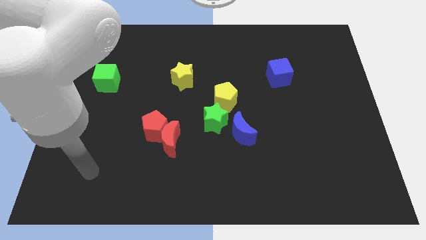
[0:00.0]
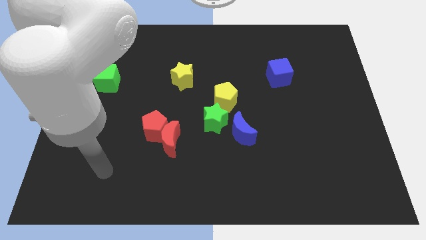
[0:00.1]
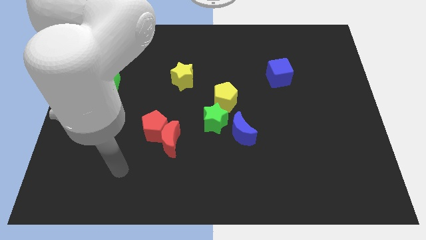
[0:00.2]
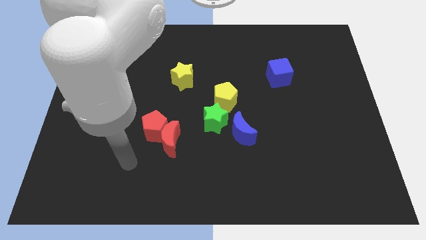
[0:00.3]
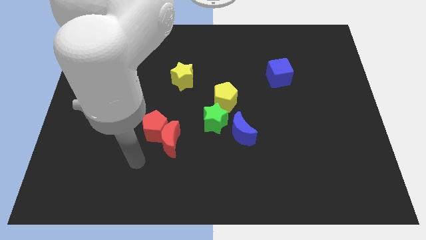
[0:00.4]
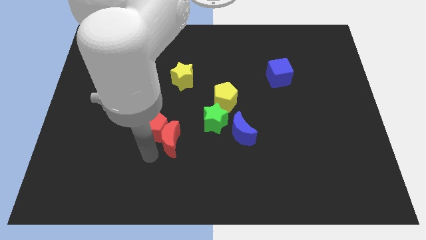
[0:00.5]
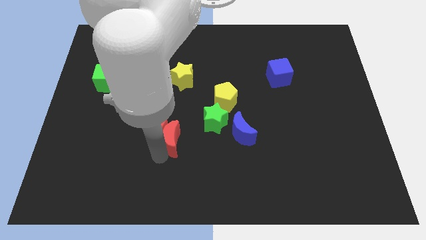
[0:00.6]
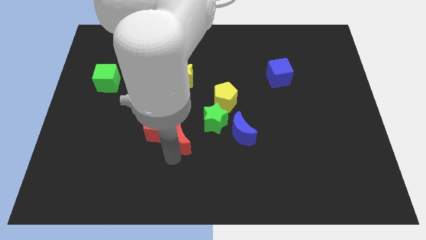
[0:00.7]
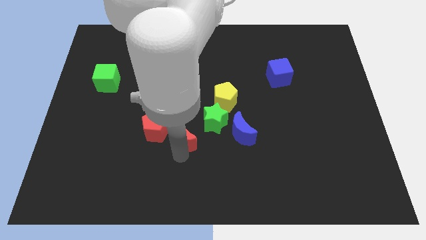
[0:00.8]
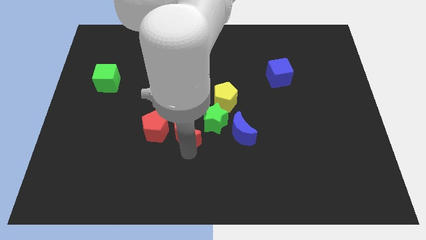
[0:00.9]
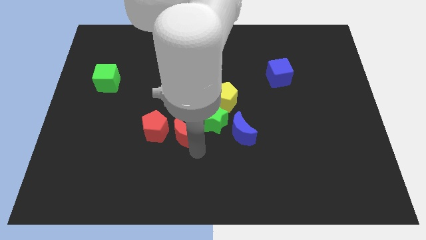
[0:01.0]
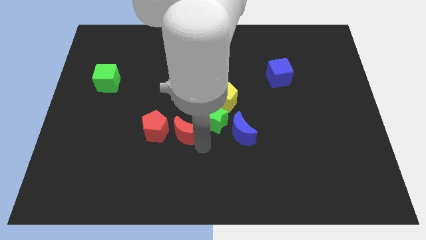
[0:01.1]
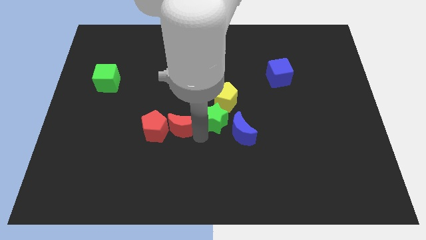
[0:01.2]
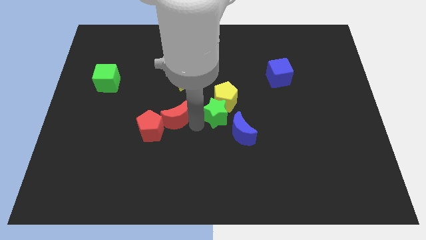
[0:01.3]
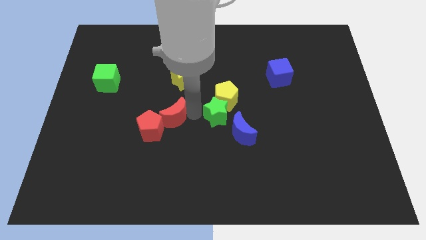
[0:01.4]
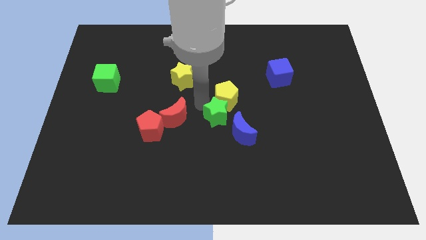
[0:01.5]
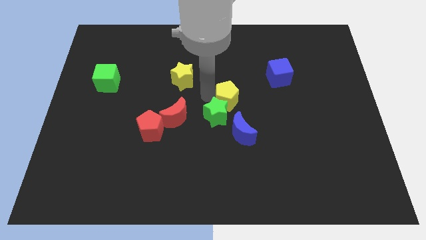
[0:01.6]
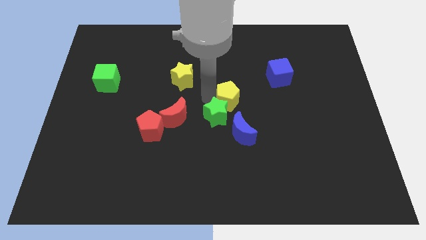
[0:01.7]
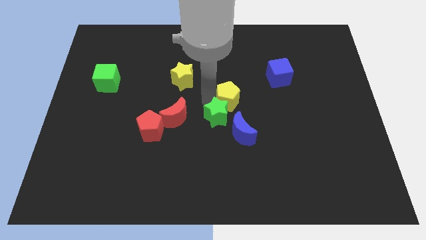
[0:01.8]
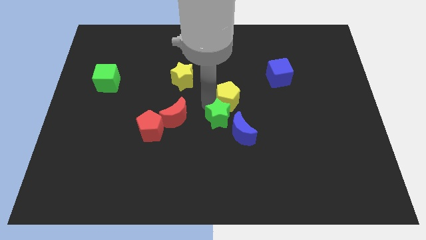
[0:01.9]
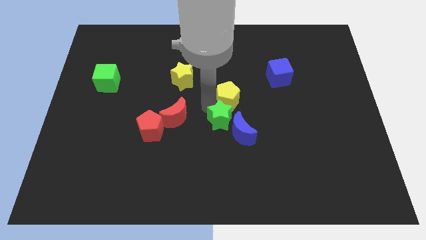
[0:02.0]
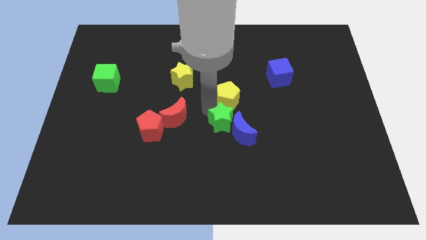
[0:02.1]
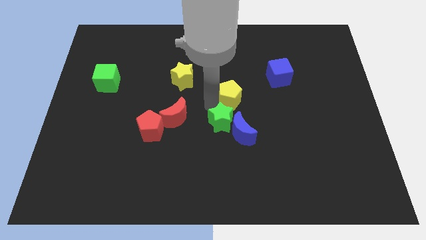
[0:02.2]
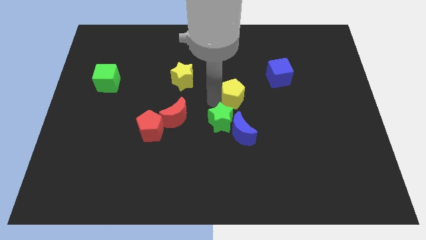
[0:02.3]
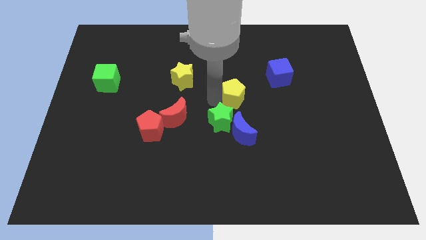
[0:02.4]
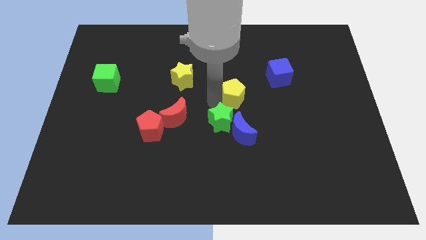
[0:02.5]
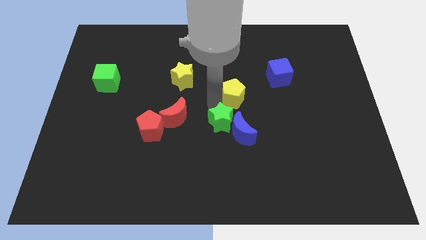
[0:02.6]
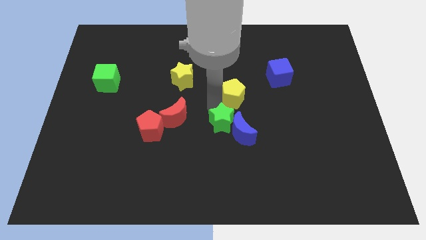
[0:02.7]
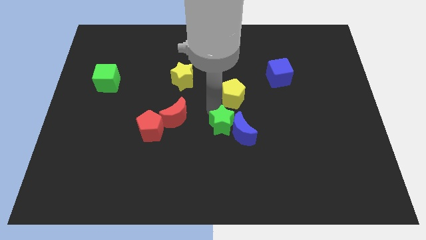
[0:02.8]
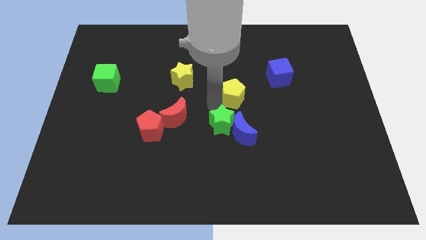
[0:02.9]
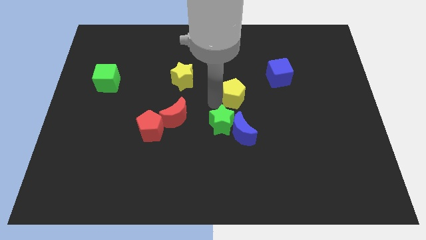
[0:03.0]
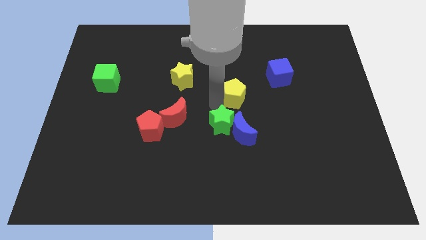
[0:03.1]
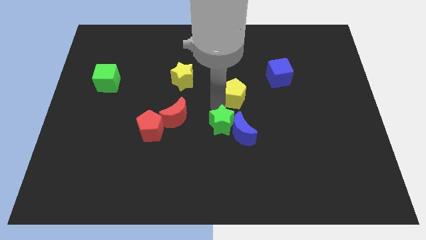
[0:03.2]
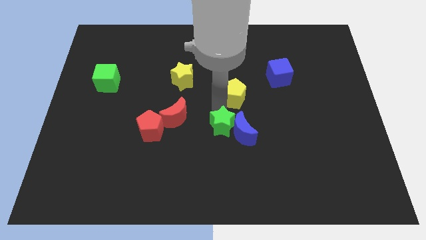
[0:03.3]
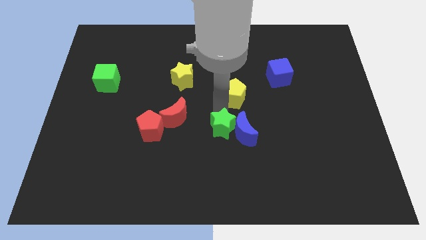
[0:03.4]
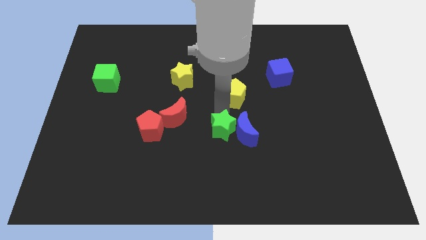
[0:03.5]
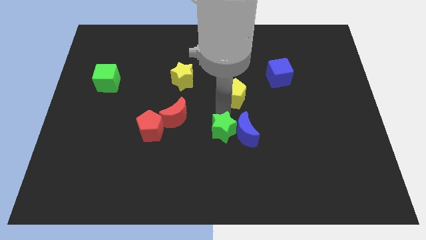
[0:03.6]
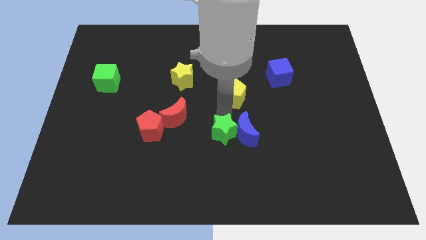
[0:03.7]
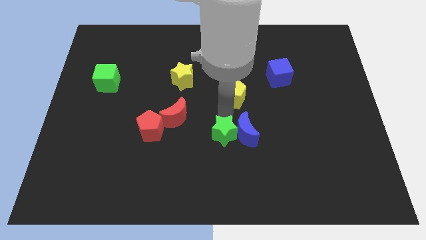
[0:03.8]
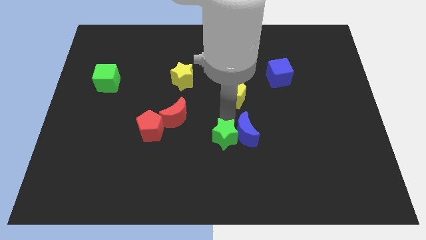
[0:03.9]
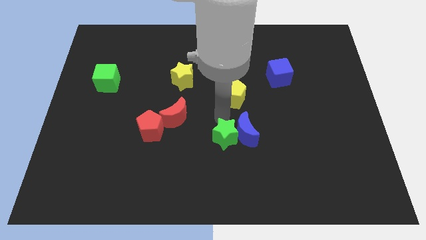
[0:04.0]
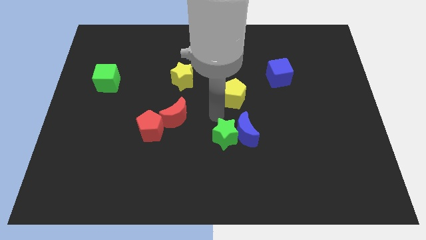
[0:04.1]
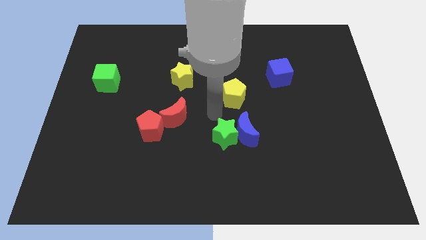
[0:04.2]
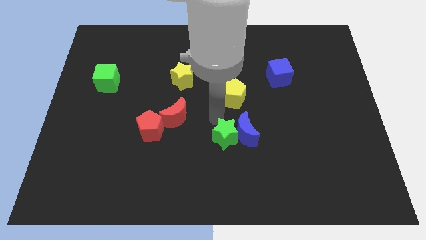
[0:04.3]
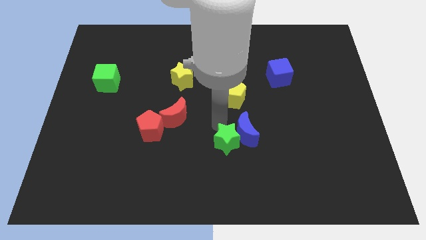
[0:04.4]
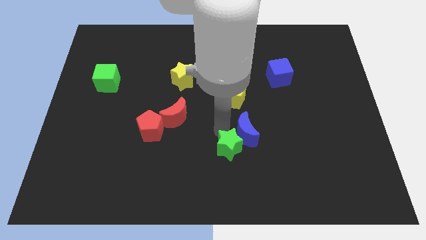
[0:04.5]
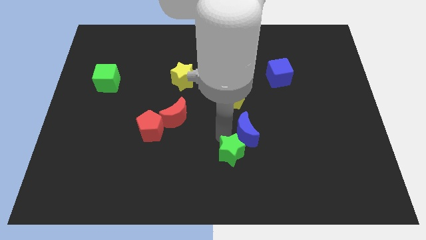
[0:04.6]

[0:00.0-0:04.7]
slightly move the green star down and to the right diagonally

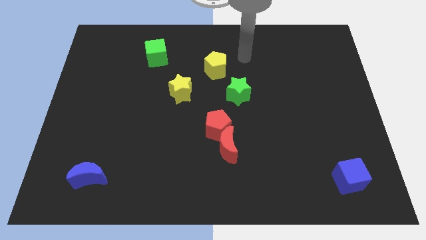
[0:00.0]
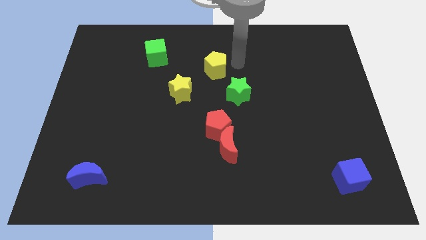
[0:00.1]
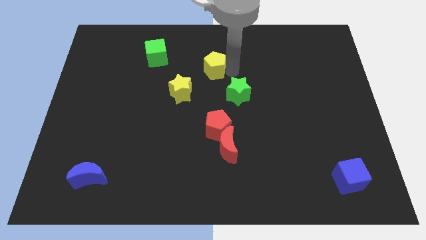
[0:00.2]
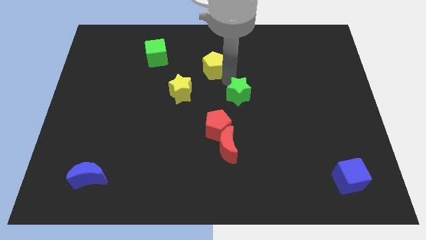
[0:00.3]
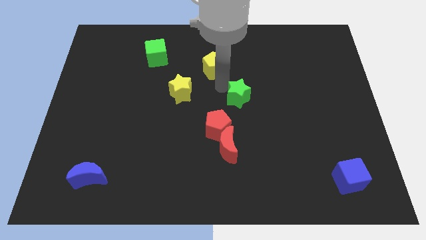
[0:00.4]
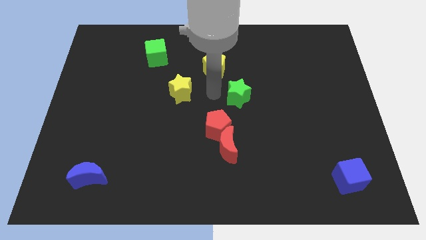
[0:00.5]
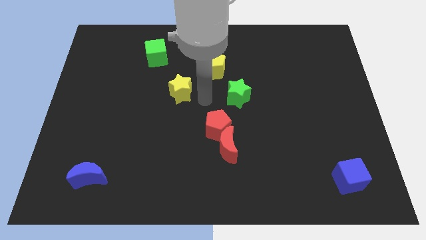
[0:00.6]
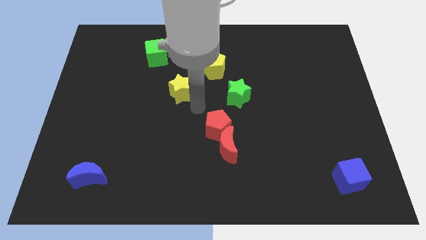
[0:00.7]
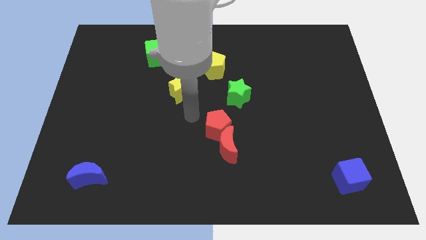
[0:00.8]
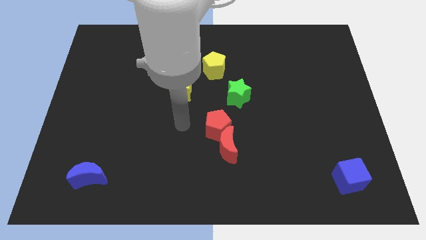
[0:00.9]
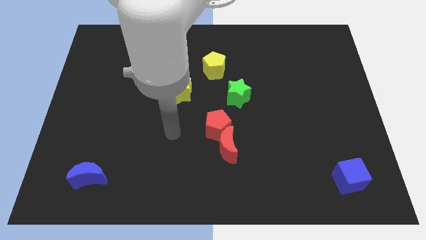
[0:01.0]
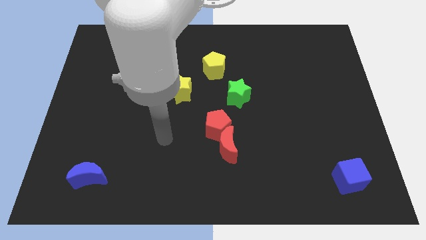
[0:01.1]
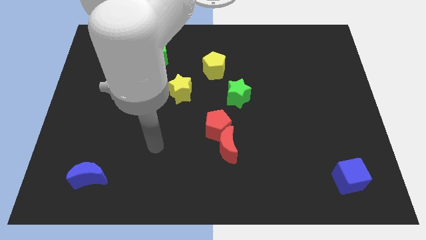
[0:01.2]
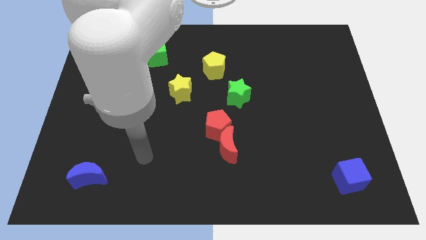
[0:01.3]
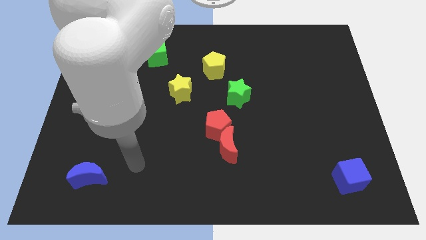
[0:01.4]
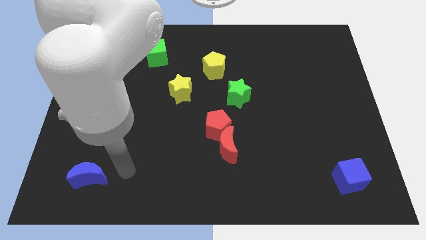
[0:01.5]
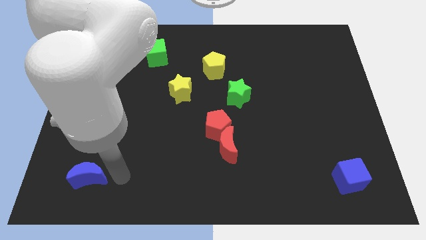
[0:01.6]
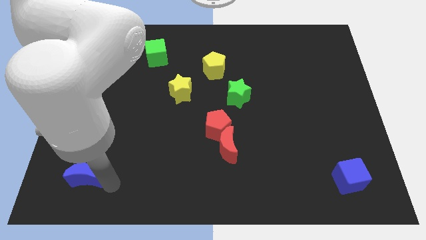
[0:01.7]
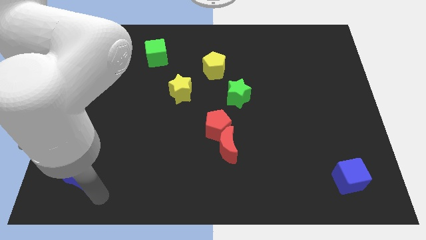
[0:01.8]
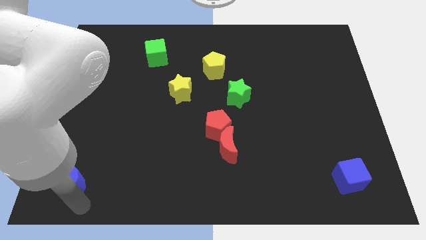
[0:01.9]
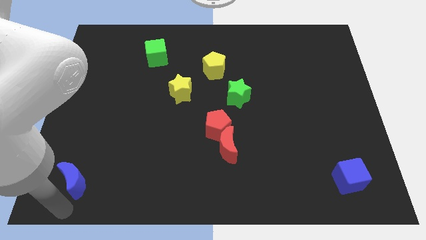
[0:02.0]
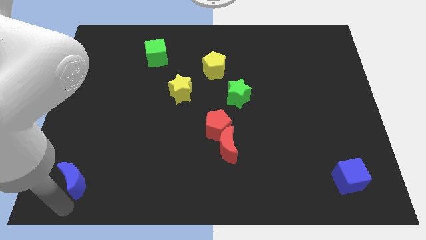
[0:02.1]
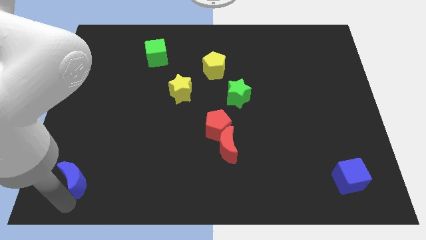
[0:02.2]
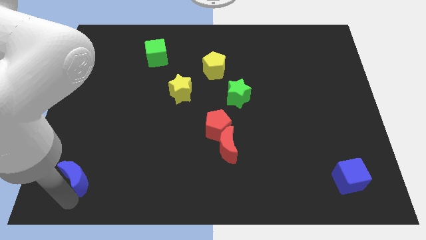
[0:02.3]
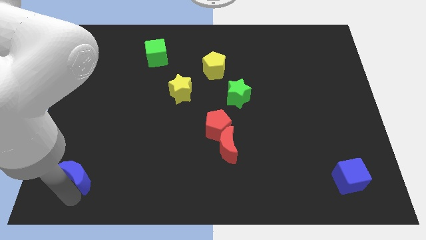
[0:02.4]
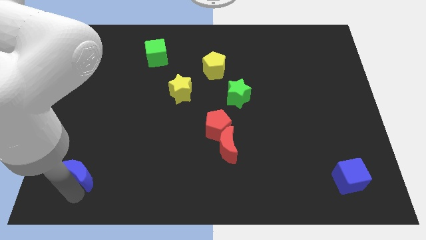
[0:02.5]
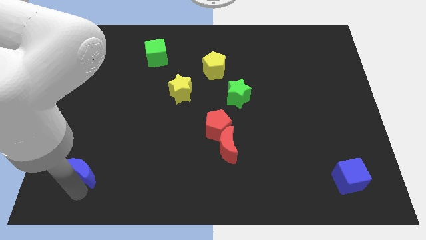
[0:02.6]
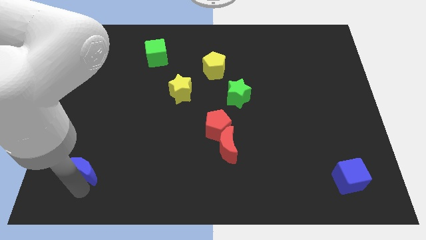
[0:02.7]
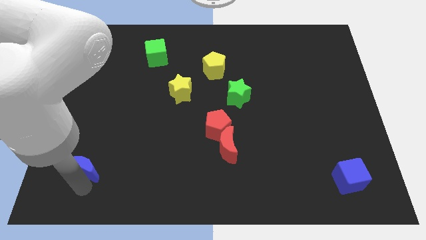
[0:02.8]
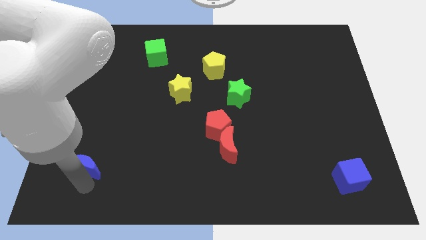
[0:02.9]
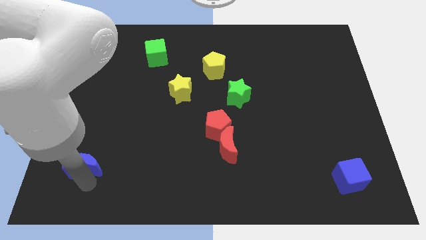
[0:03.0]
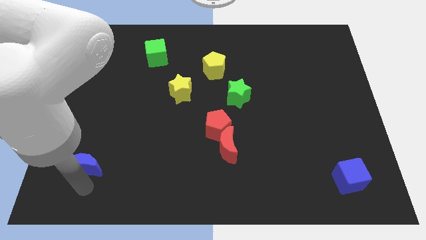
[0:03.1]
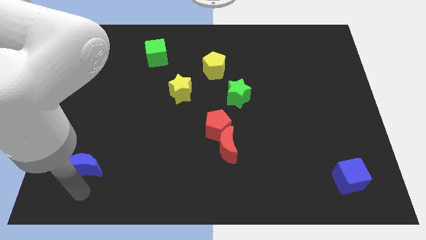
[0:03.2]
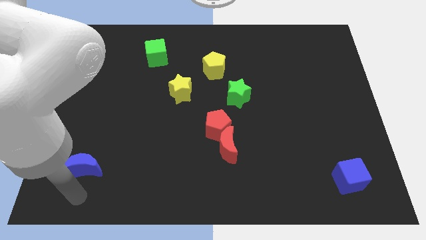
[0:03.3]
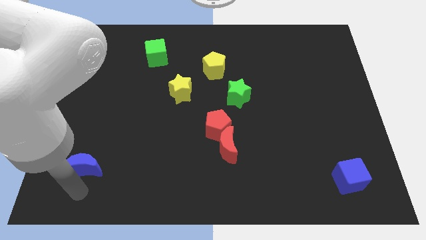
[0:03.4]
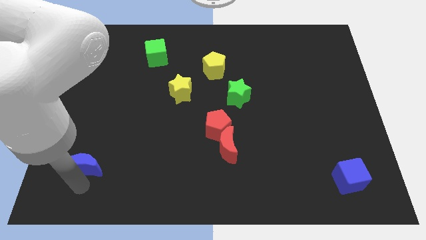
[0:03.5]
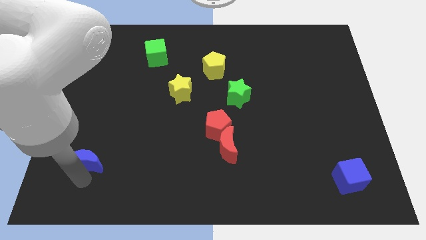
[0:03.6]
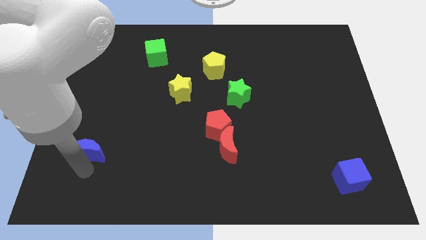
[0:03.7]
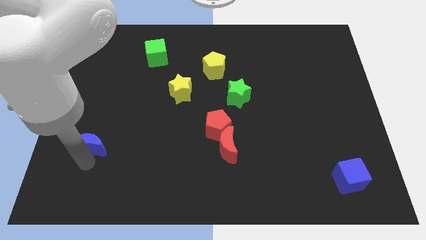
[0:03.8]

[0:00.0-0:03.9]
slide the blue moon a little up
